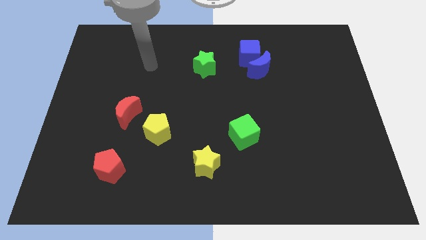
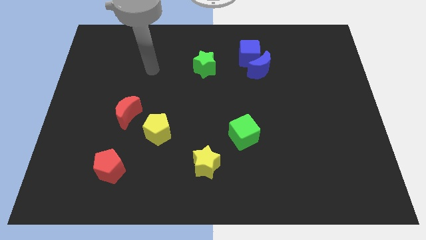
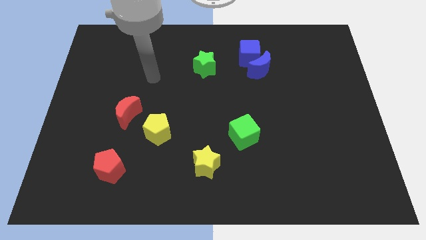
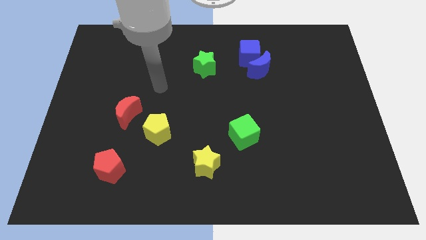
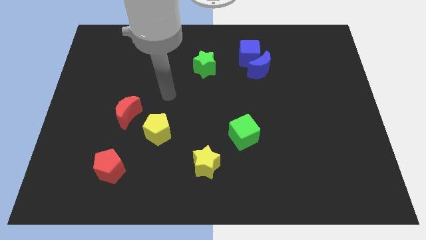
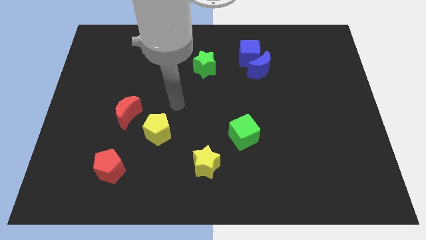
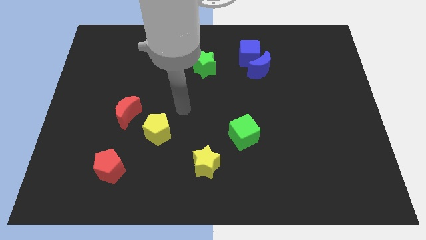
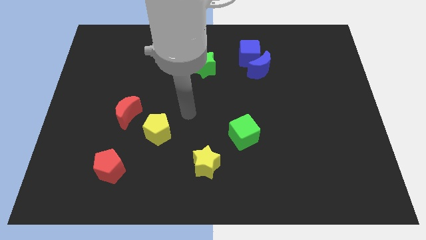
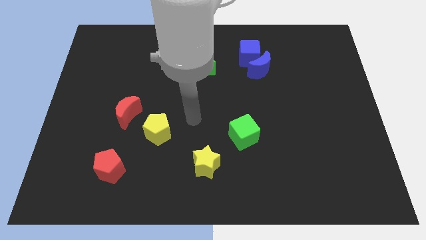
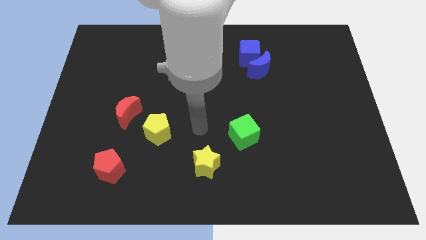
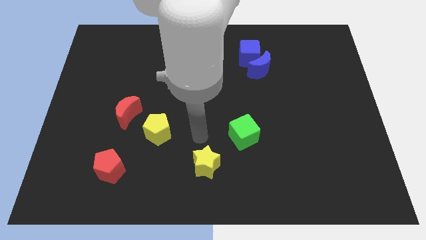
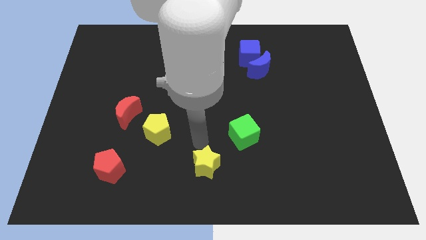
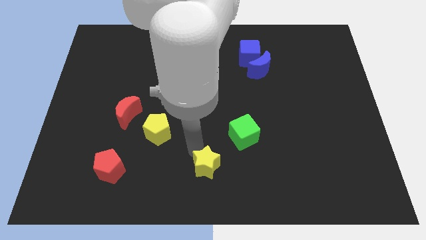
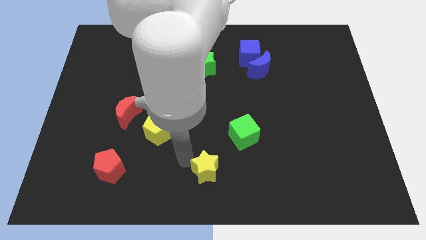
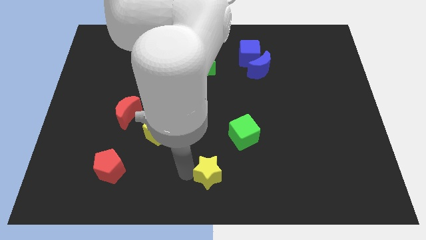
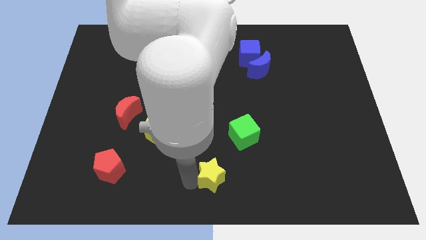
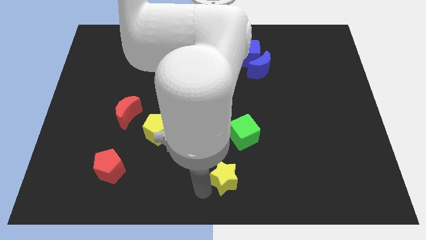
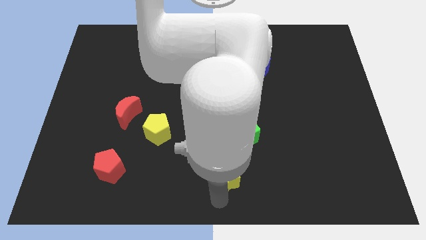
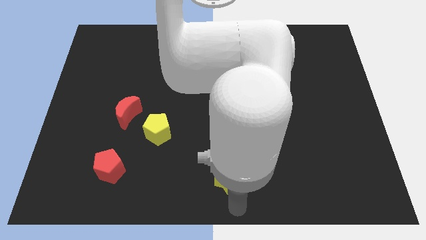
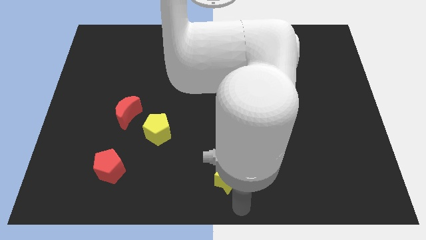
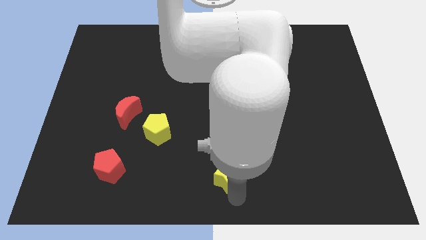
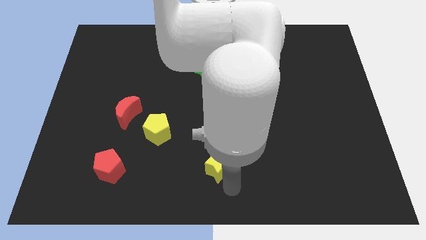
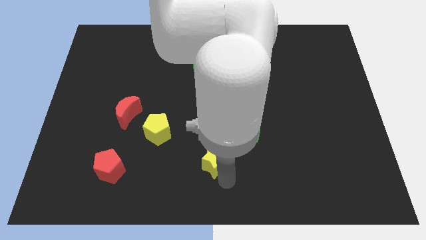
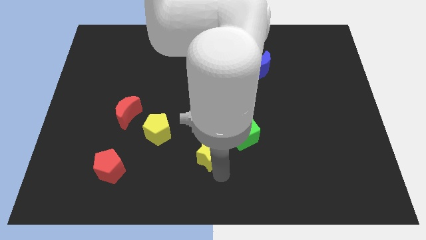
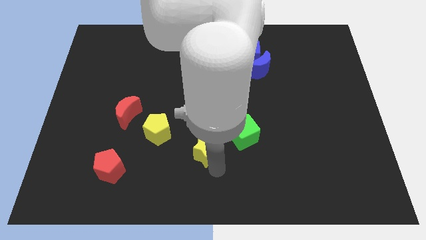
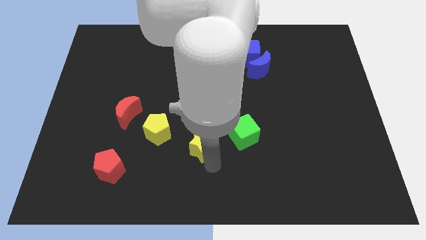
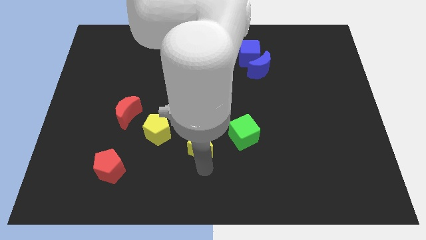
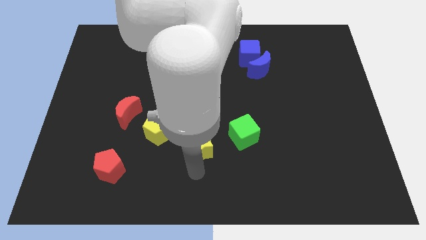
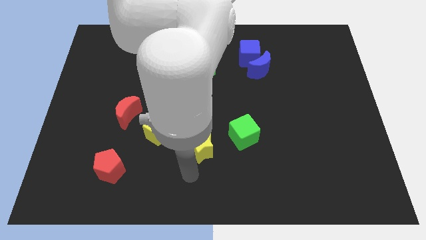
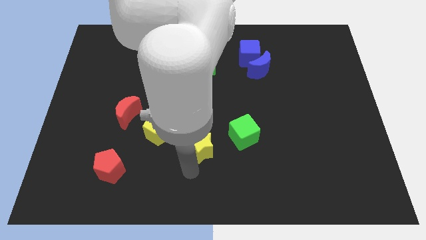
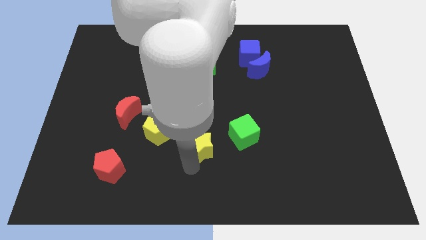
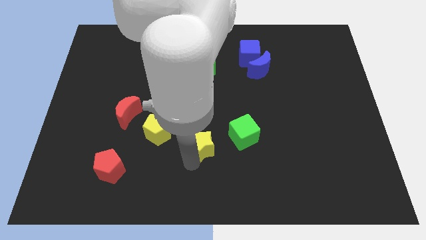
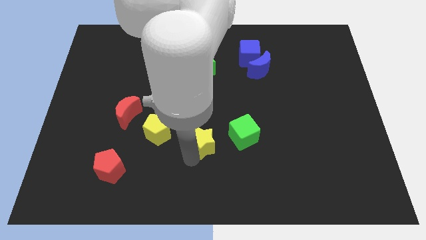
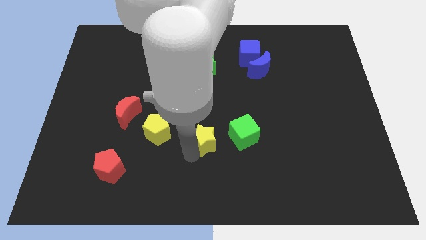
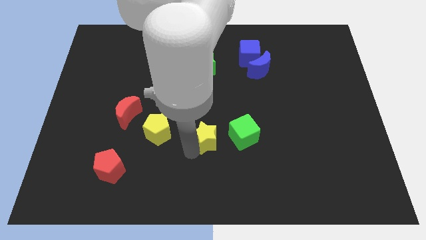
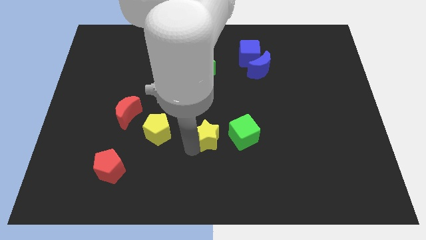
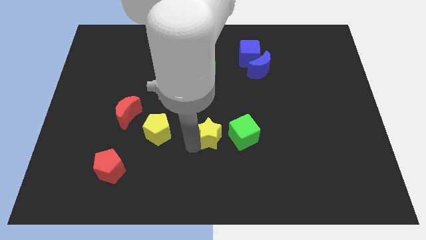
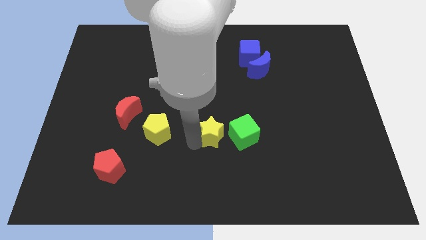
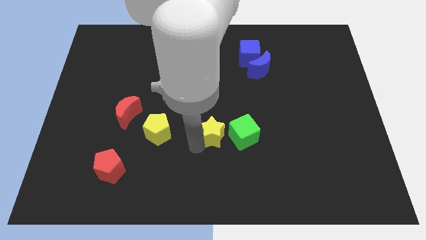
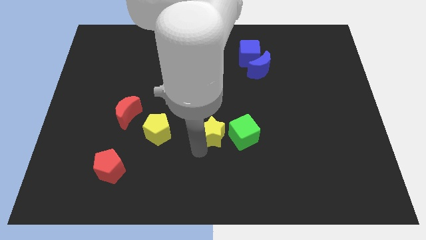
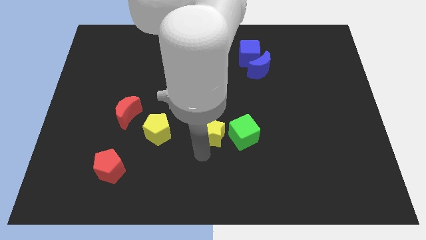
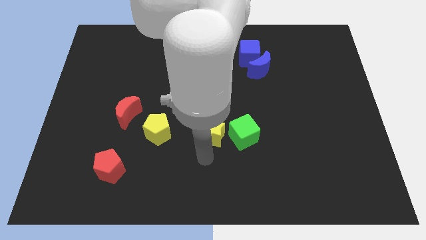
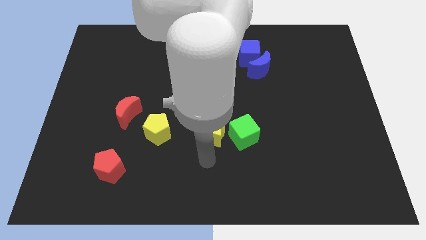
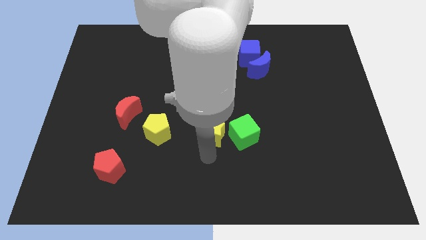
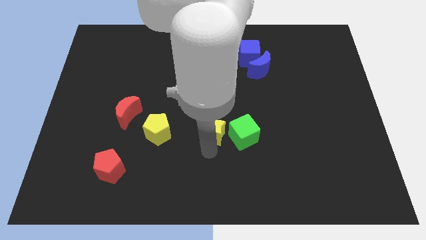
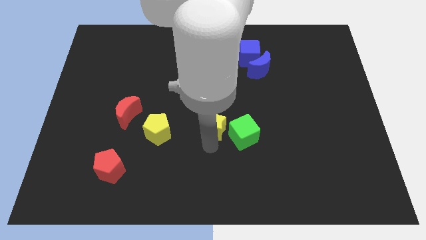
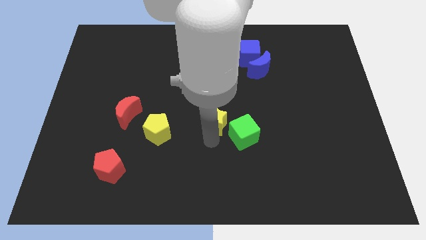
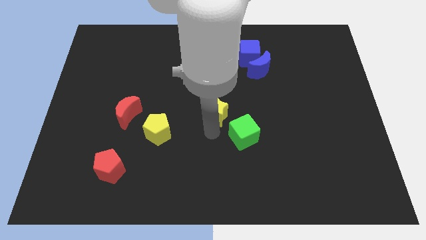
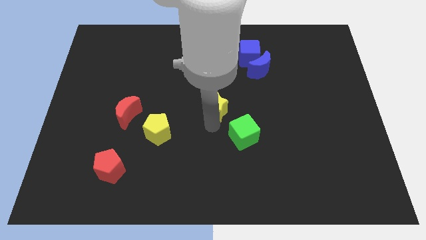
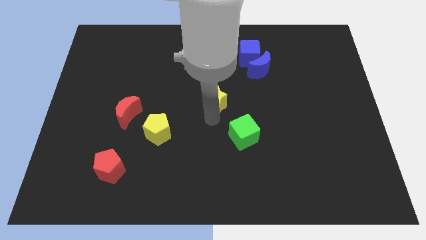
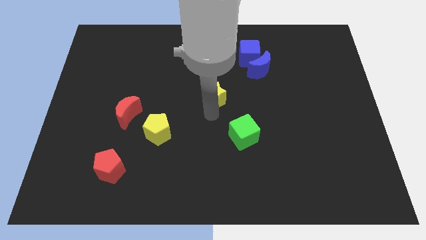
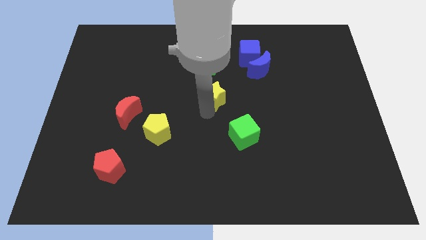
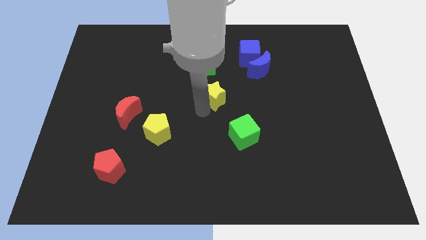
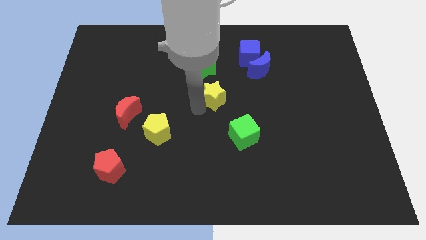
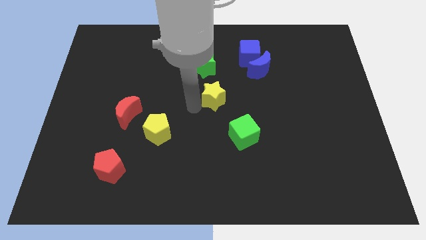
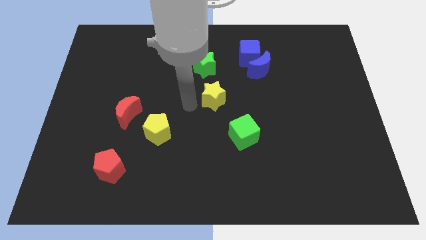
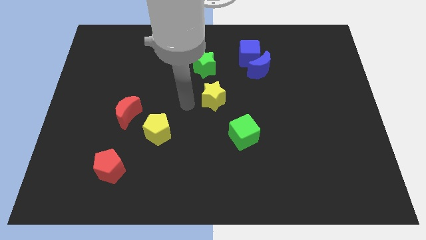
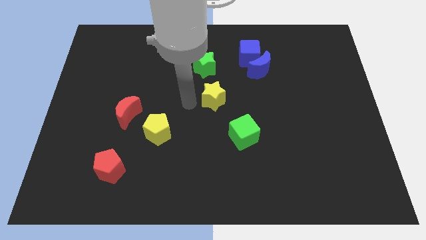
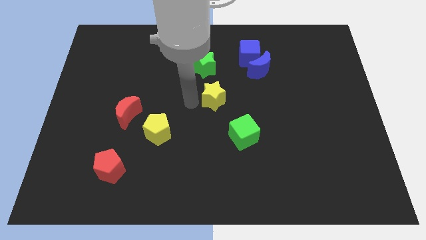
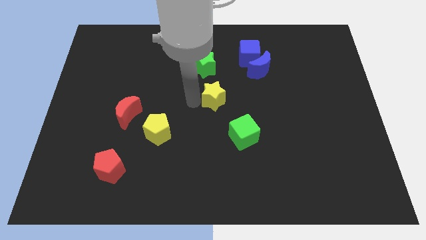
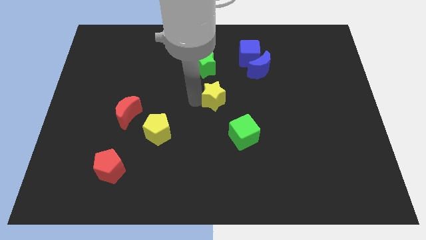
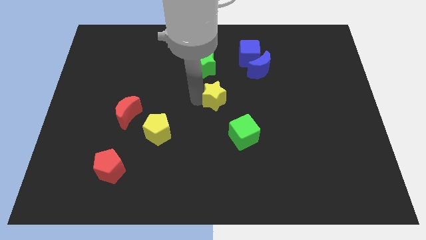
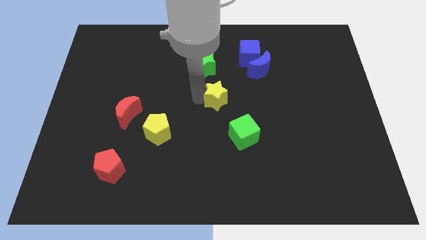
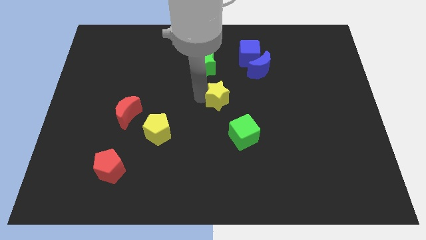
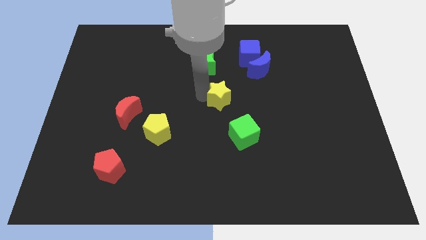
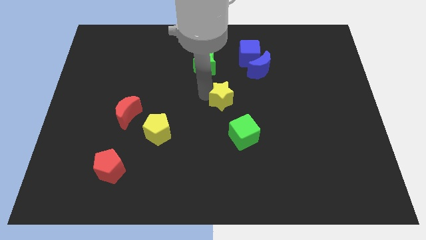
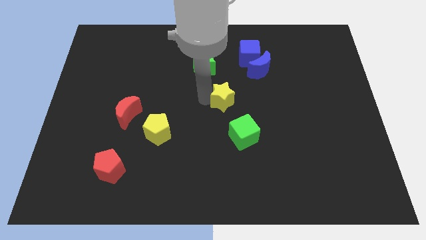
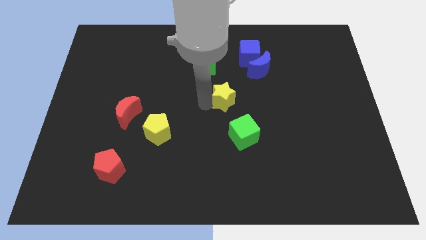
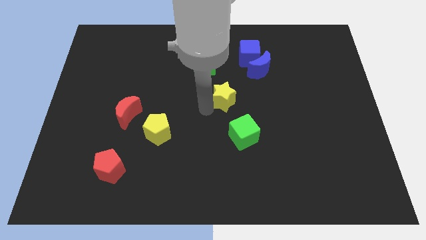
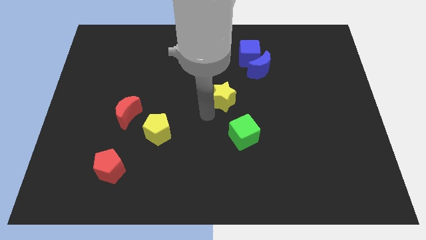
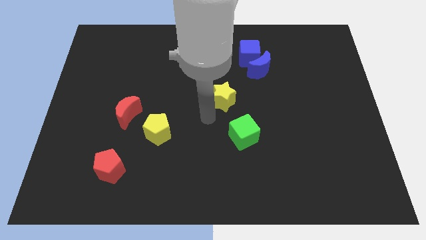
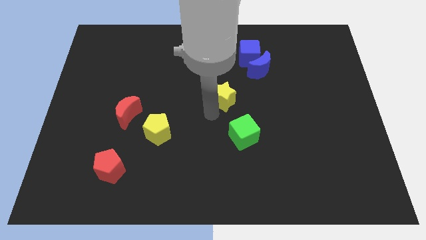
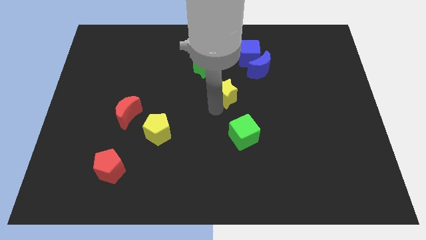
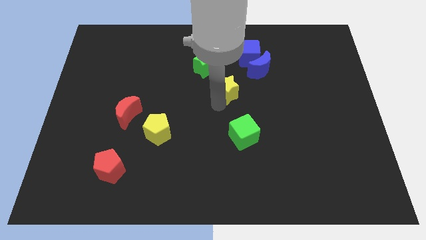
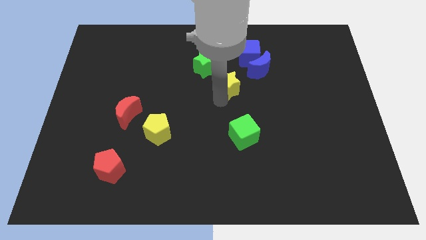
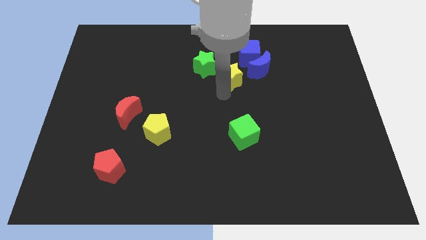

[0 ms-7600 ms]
slide the yellow star to the right of the green star
